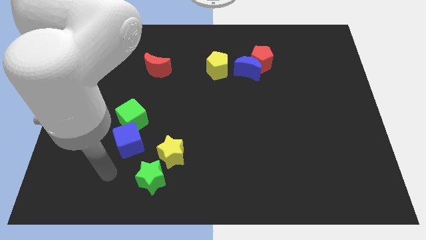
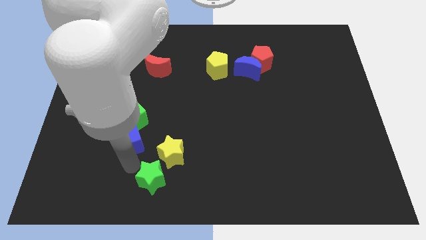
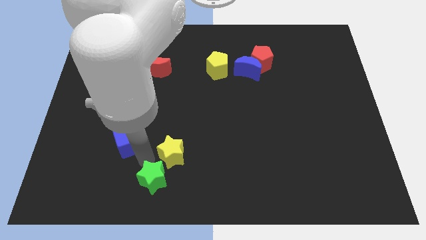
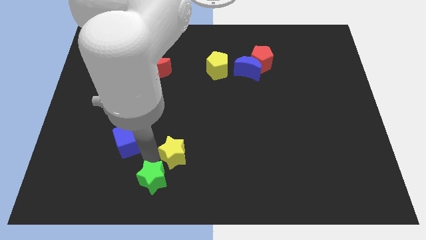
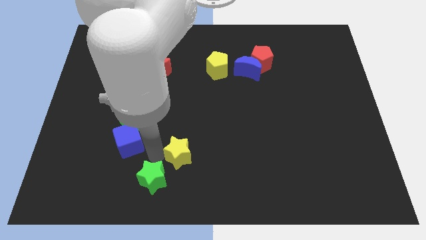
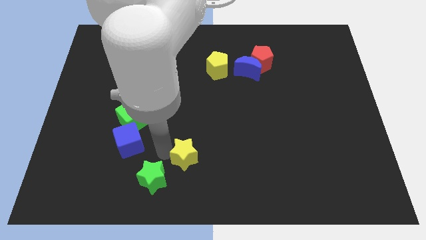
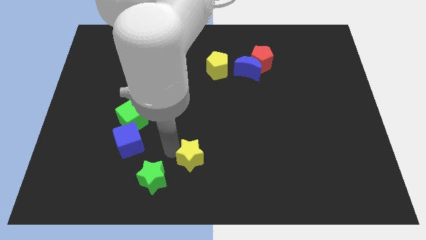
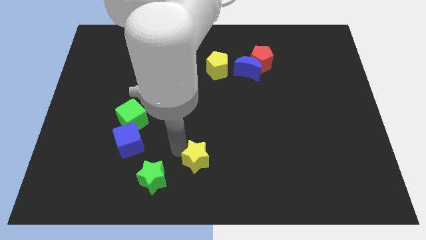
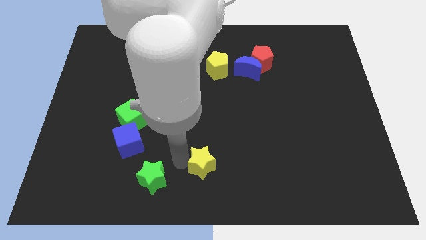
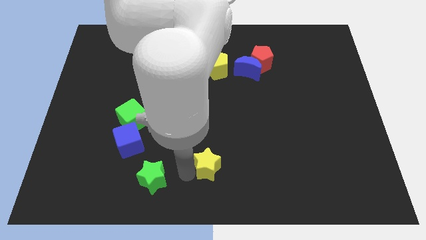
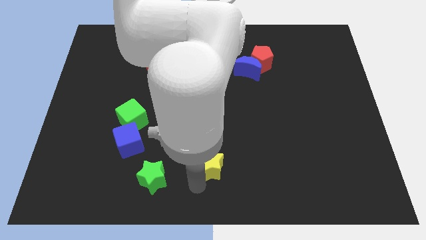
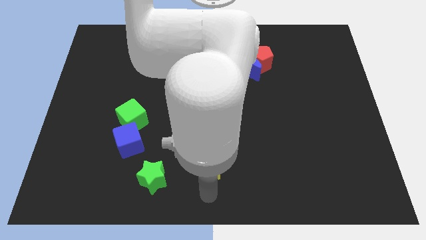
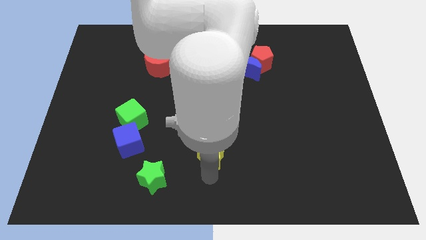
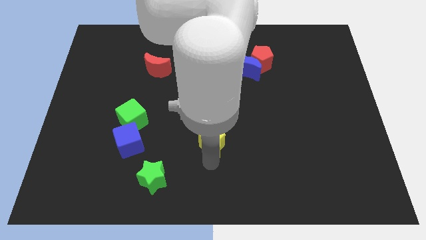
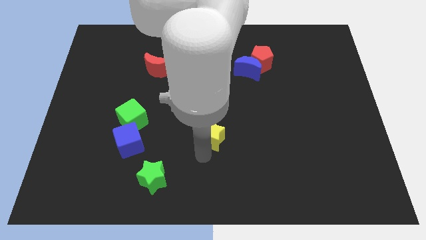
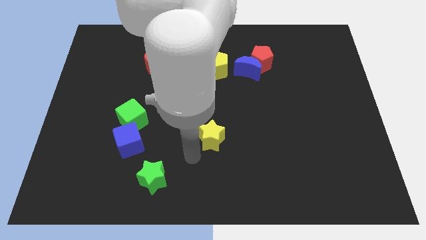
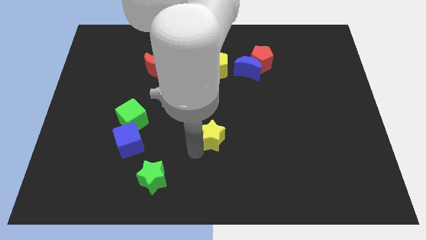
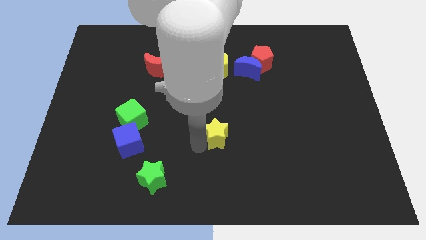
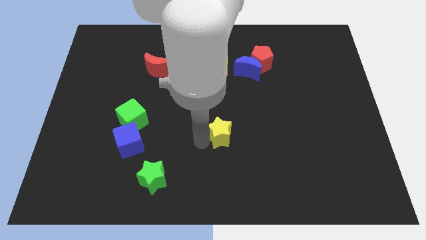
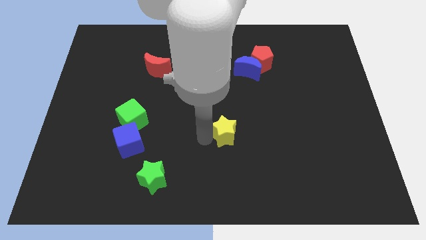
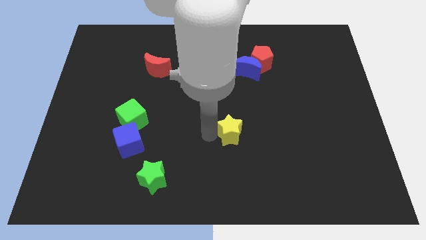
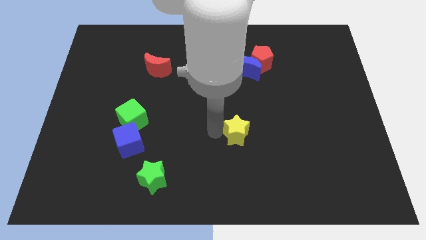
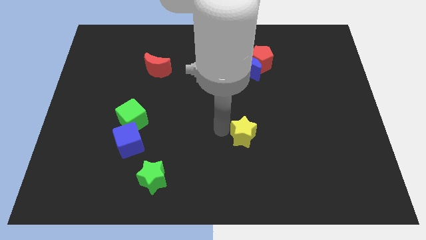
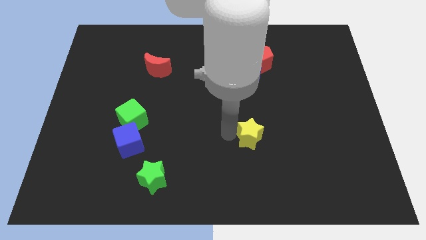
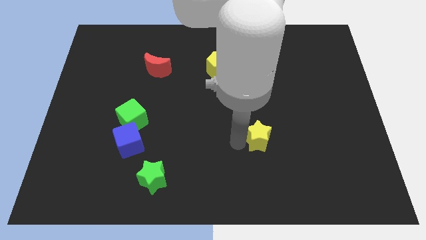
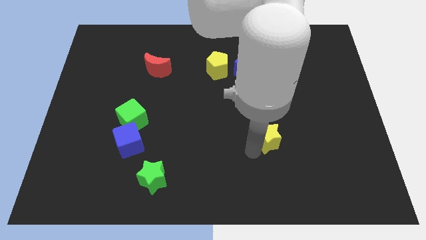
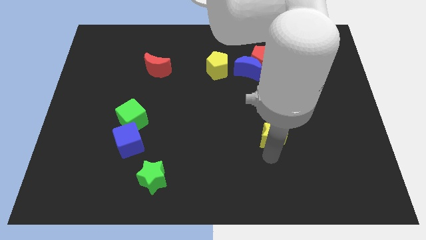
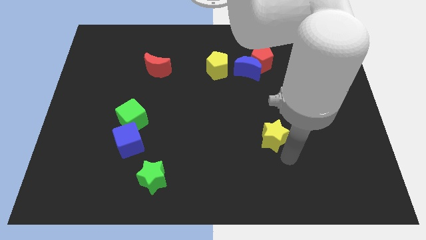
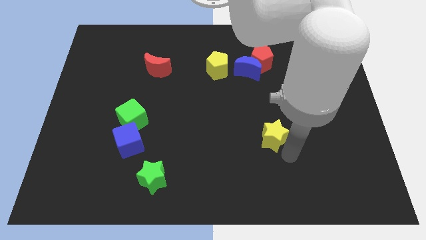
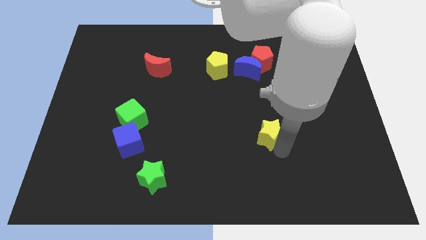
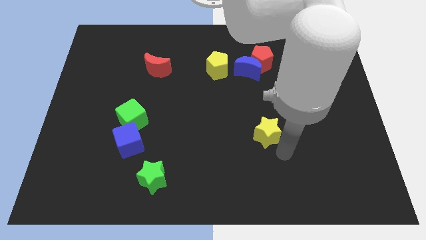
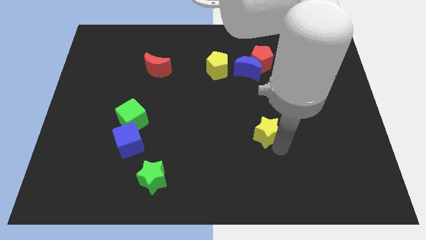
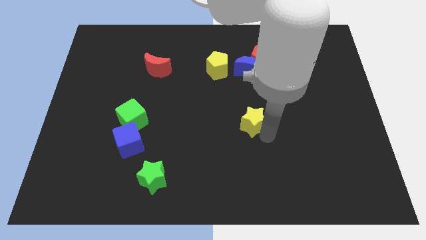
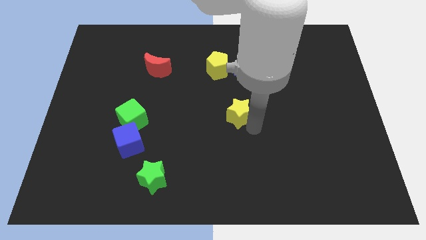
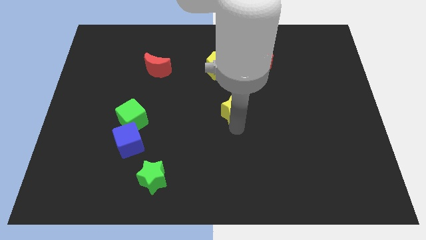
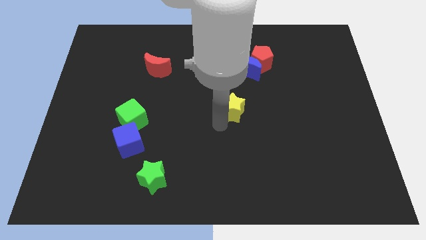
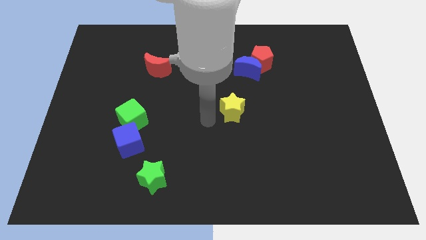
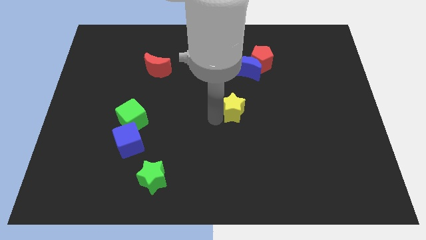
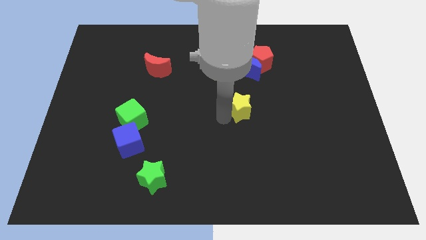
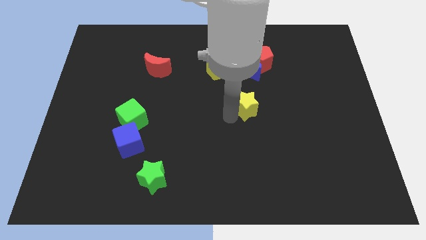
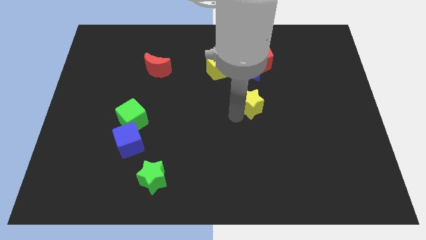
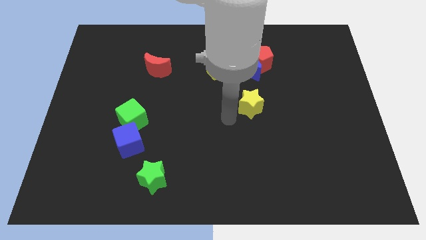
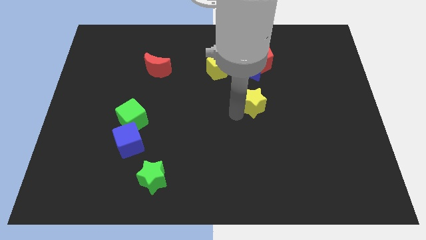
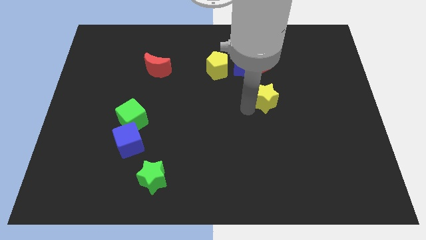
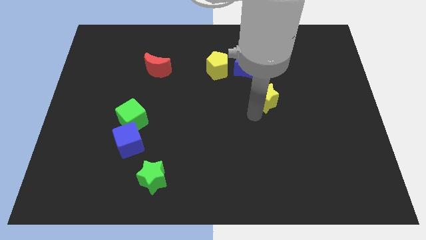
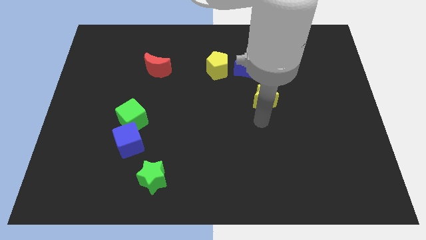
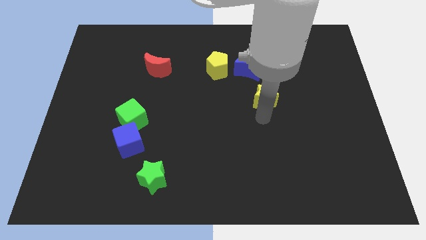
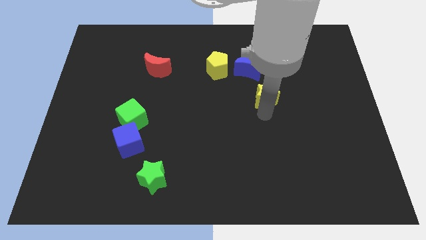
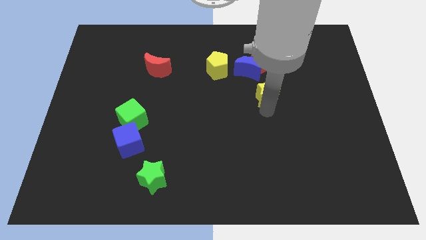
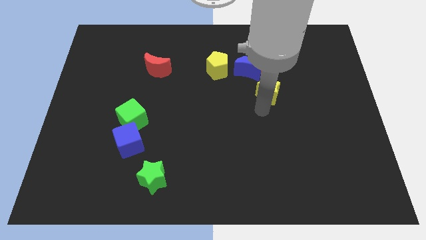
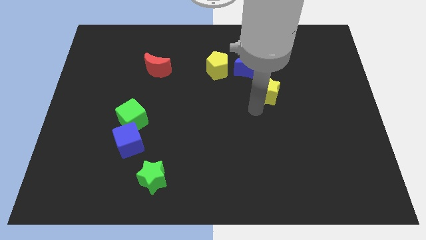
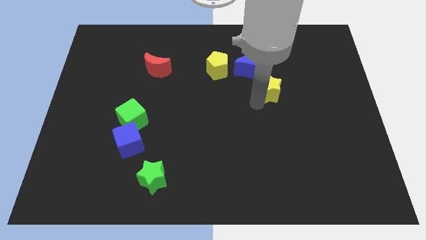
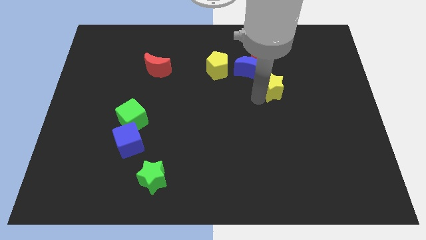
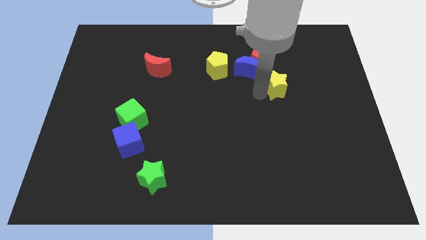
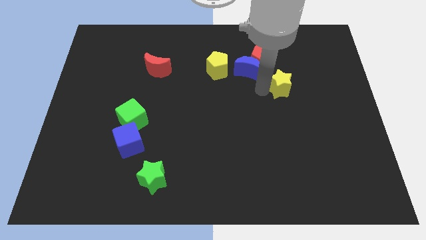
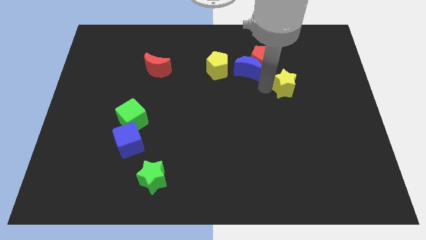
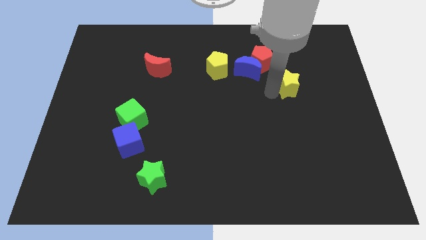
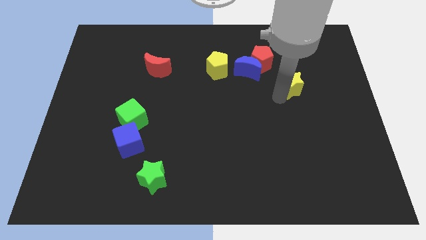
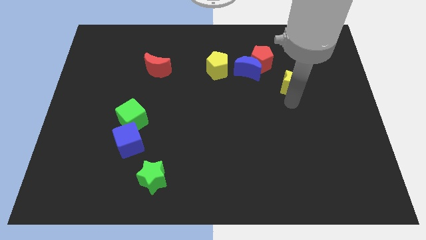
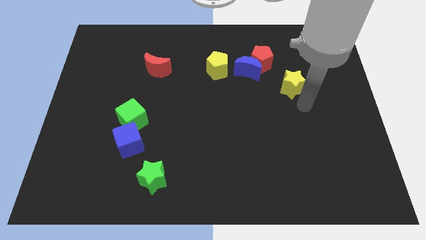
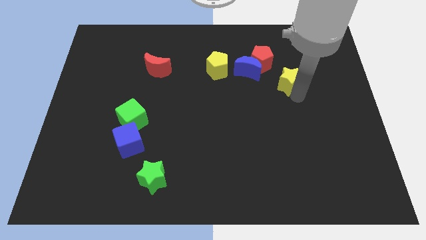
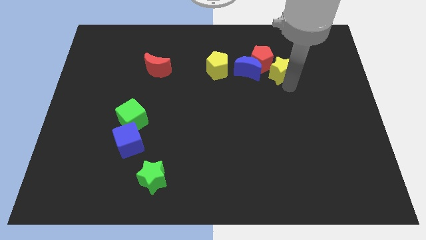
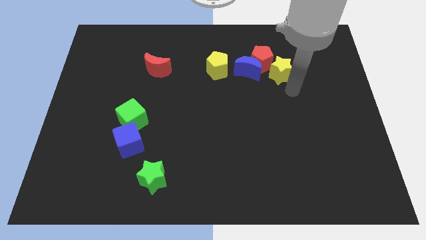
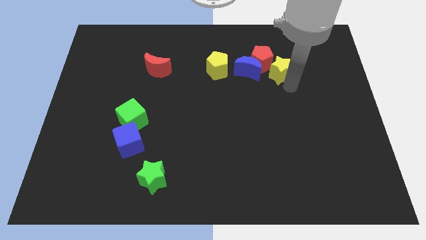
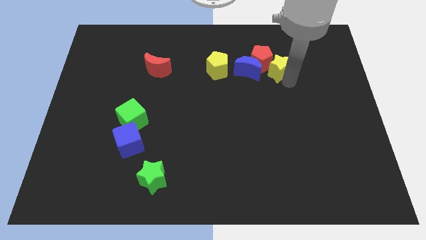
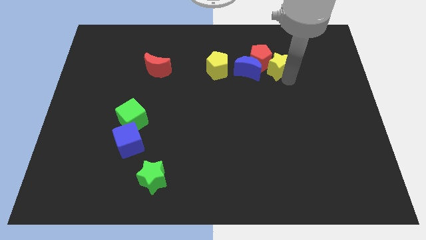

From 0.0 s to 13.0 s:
slide the yellow star to the top right of the blue moon

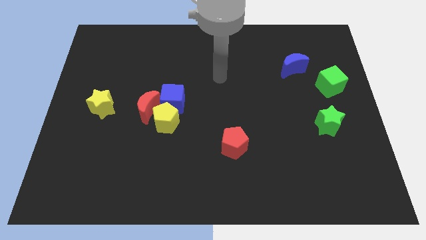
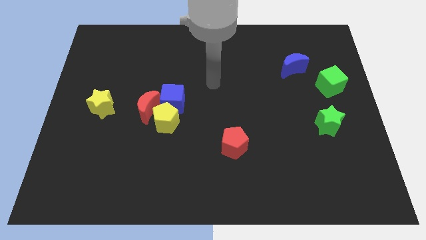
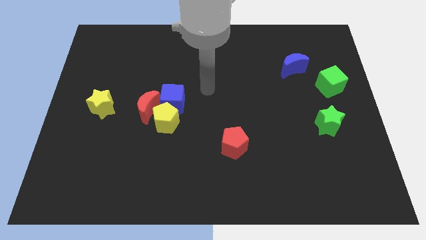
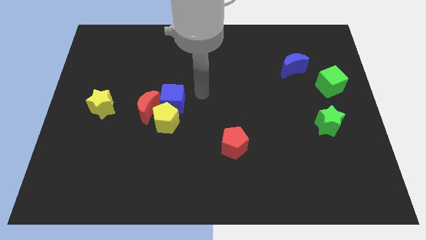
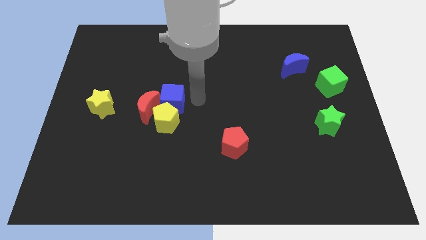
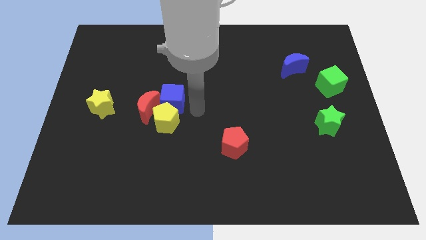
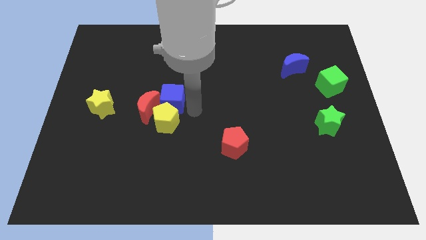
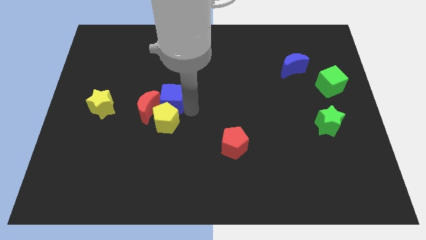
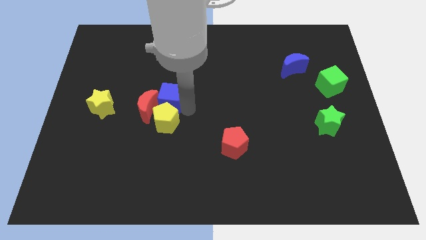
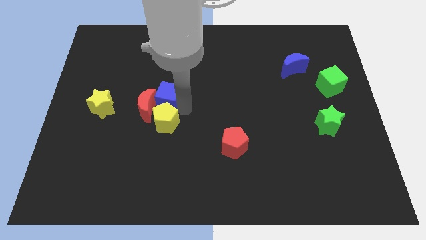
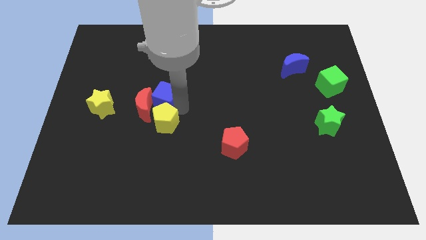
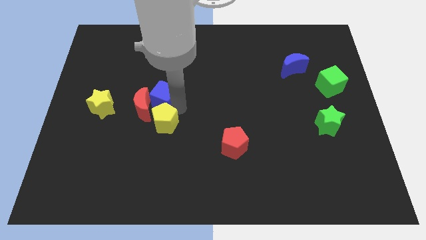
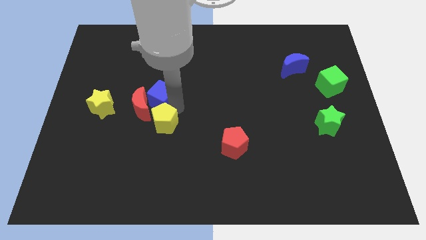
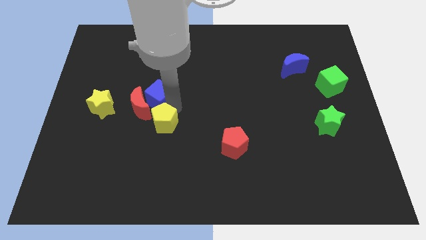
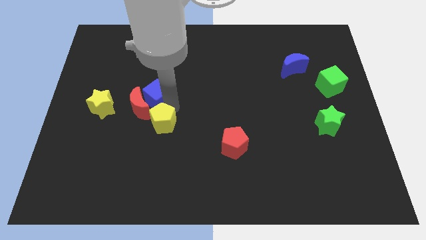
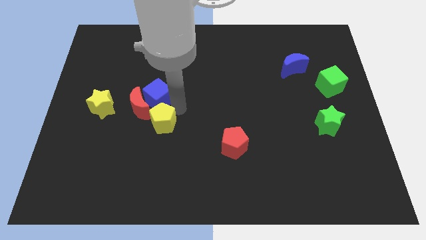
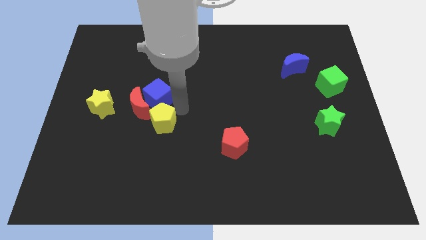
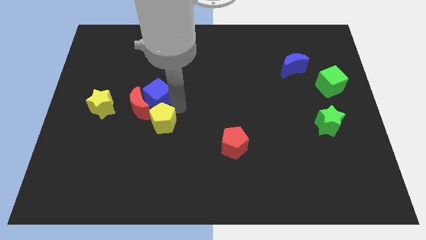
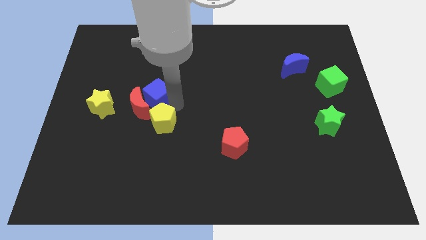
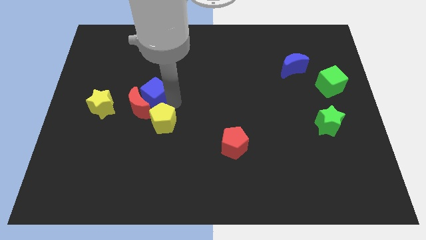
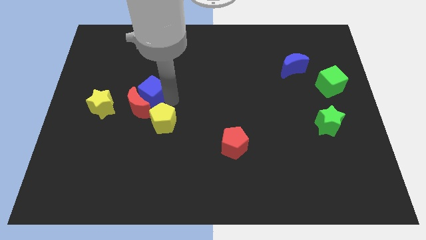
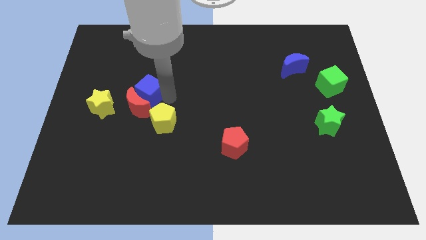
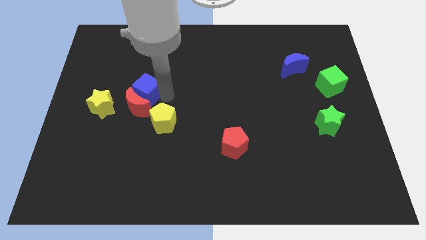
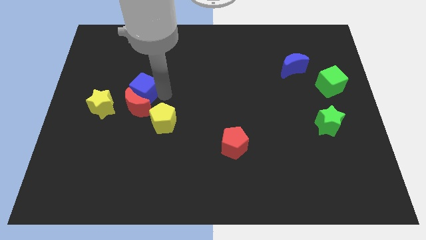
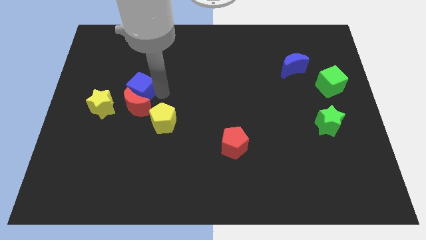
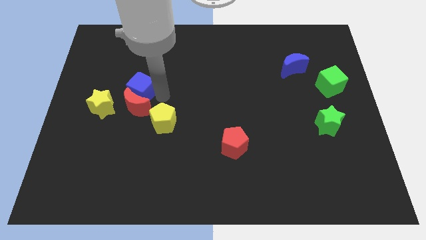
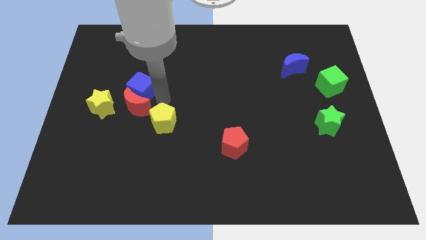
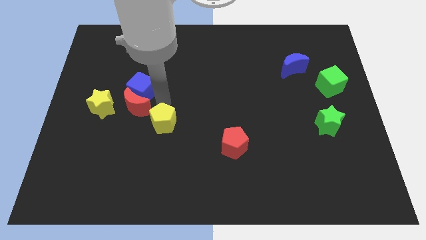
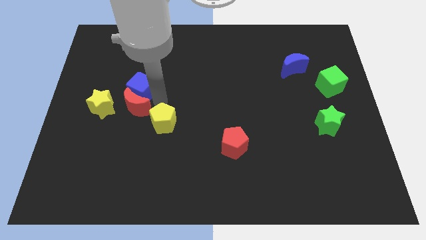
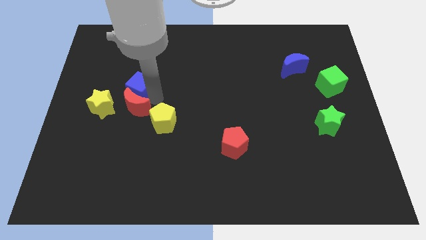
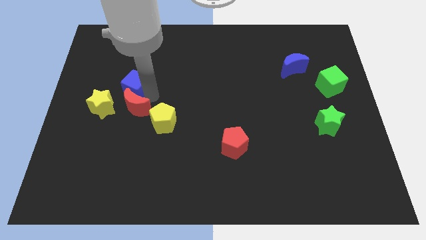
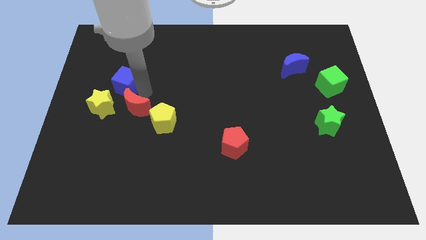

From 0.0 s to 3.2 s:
move the blue cube above the yellow star
